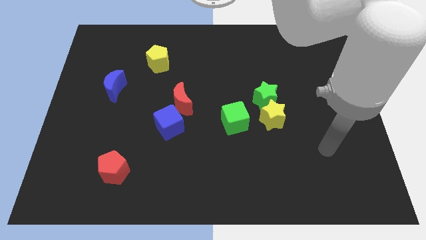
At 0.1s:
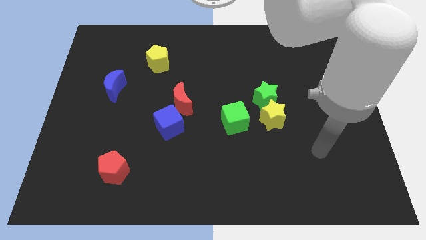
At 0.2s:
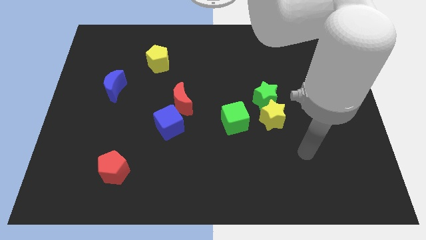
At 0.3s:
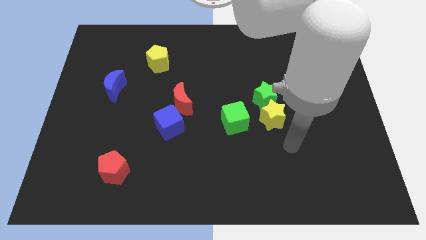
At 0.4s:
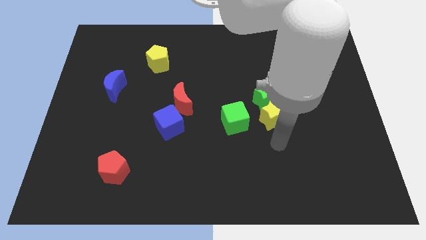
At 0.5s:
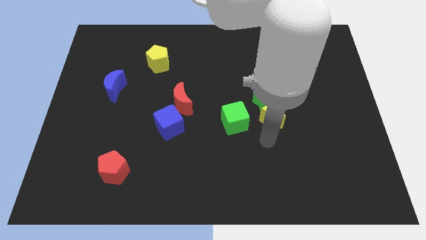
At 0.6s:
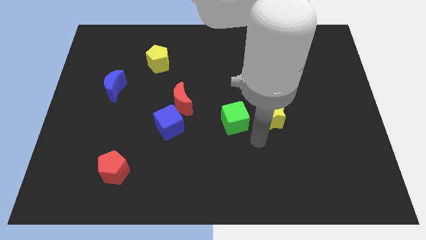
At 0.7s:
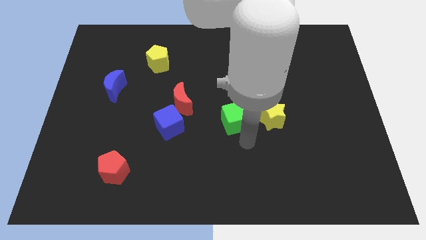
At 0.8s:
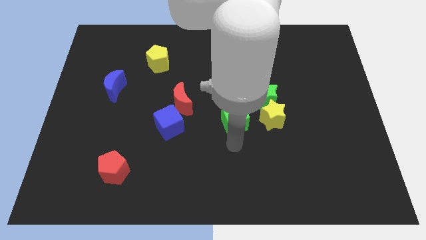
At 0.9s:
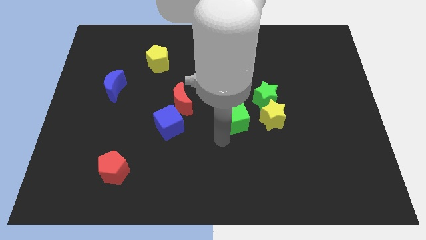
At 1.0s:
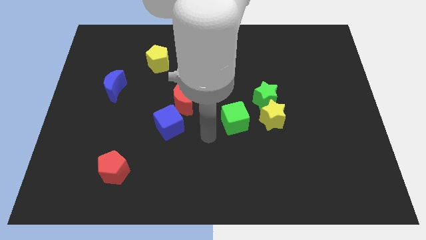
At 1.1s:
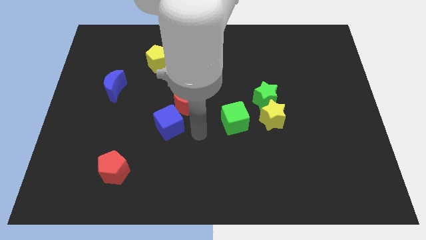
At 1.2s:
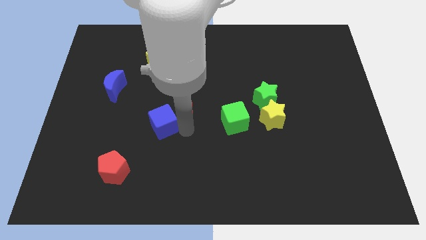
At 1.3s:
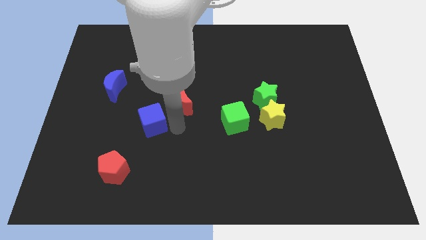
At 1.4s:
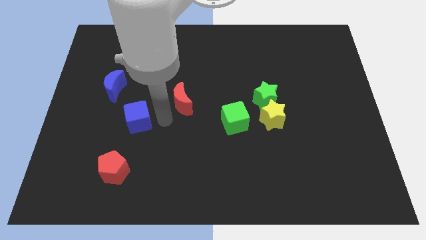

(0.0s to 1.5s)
separate the red moon from the blue cube

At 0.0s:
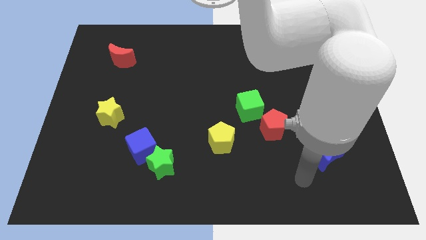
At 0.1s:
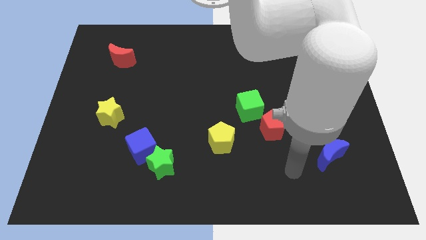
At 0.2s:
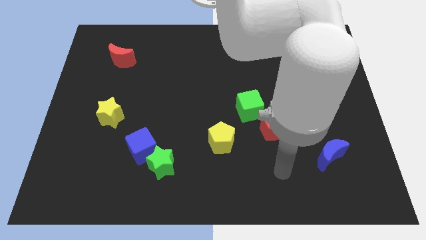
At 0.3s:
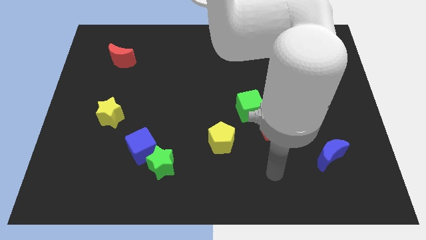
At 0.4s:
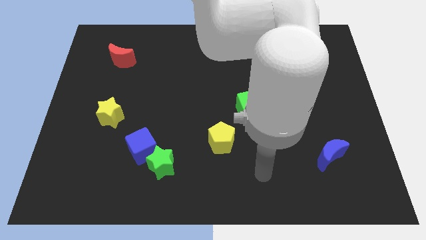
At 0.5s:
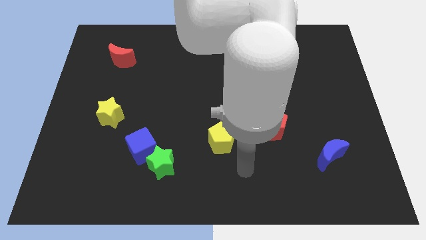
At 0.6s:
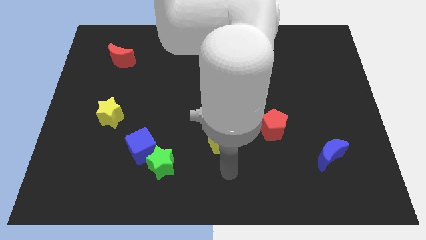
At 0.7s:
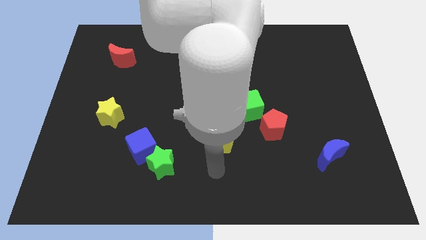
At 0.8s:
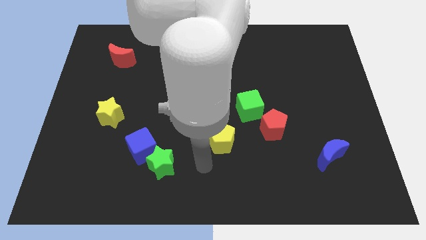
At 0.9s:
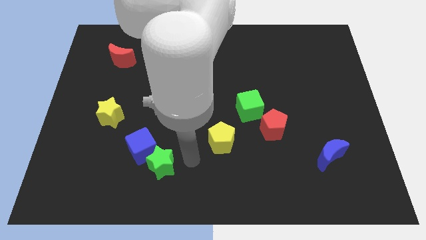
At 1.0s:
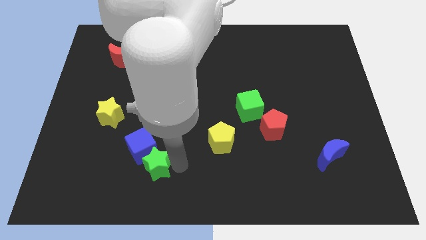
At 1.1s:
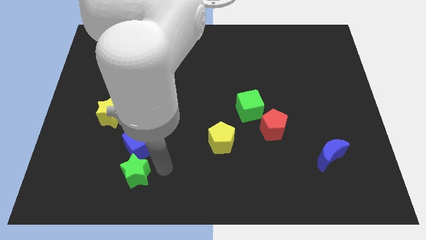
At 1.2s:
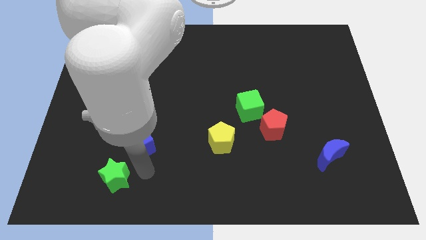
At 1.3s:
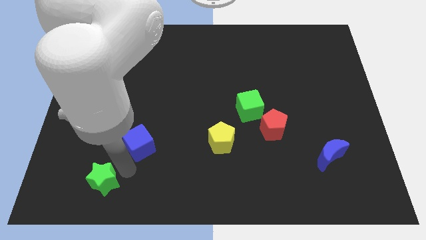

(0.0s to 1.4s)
separate the blue cube from the green star

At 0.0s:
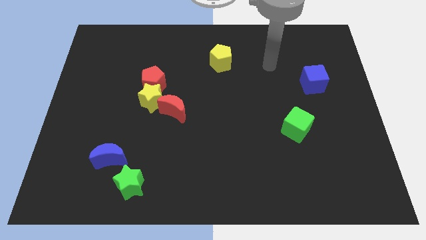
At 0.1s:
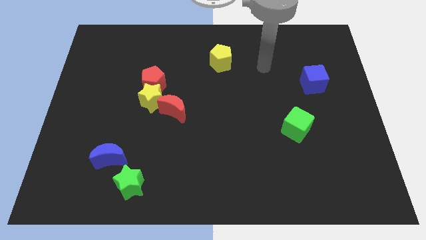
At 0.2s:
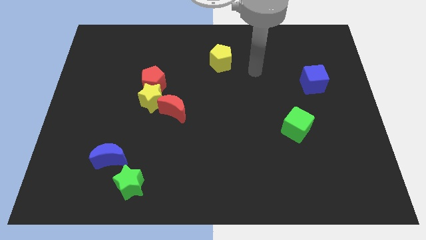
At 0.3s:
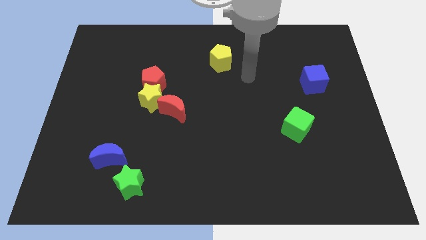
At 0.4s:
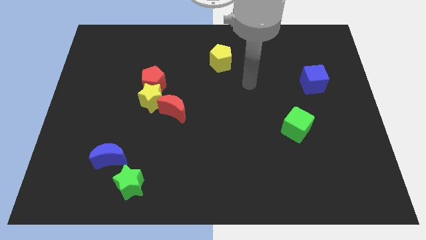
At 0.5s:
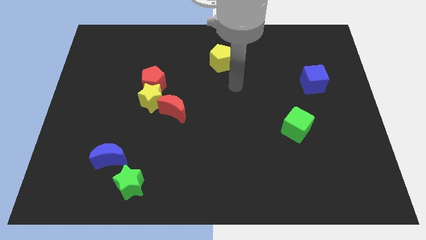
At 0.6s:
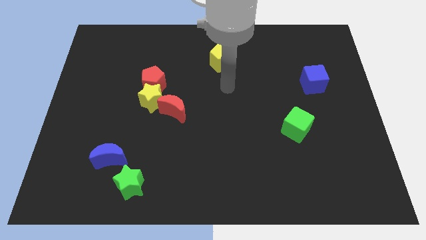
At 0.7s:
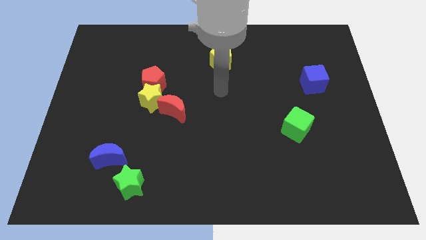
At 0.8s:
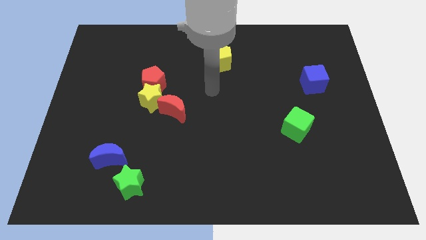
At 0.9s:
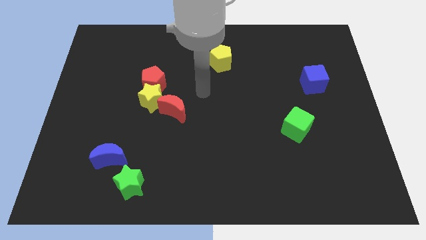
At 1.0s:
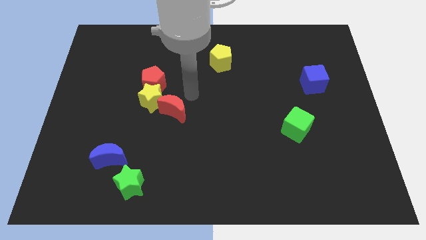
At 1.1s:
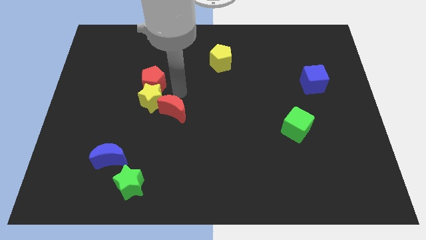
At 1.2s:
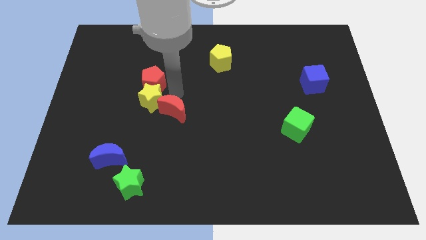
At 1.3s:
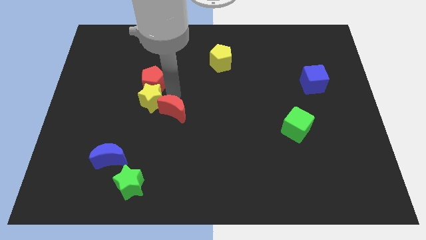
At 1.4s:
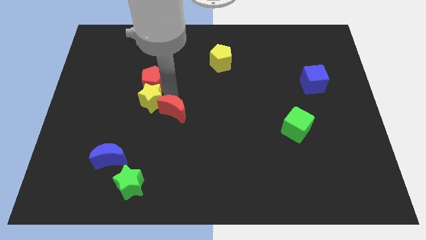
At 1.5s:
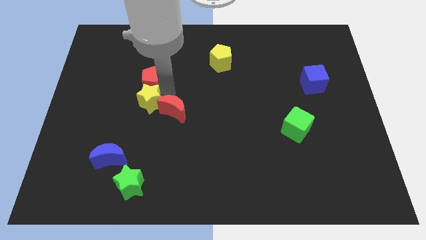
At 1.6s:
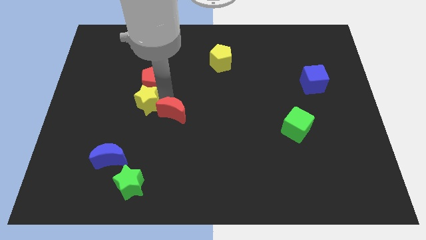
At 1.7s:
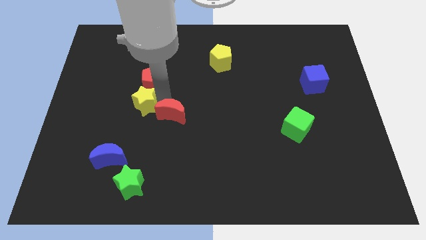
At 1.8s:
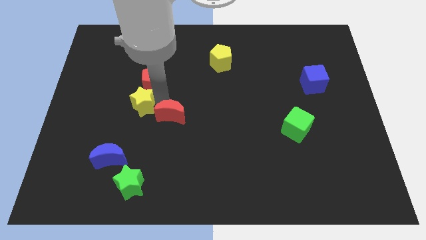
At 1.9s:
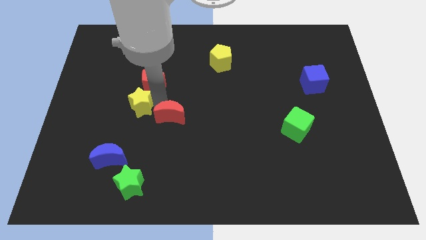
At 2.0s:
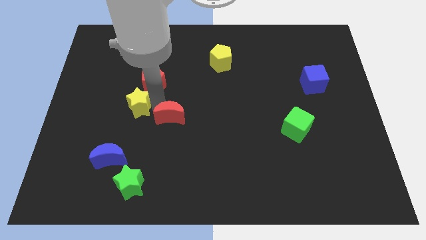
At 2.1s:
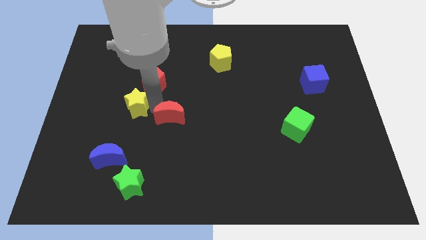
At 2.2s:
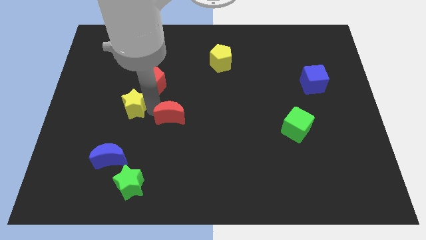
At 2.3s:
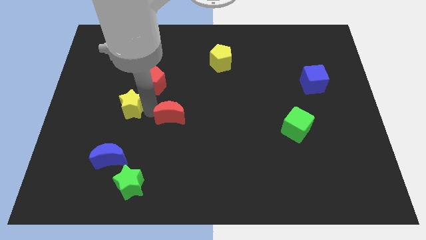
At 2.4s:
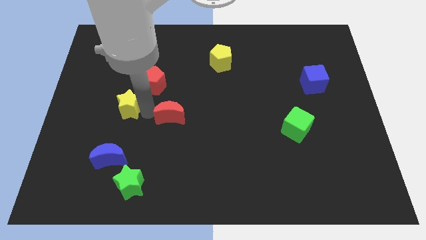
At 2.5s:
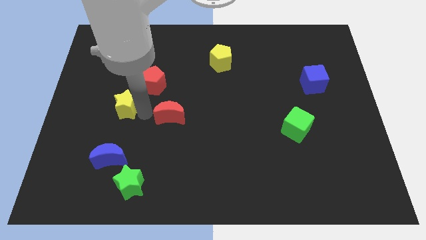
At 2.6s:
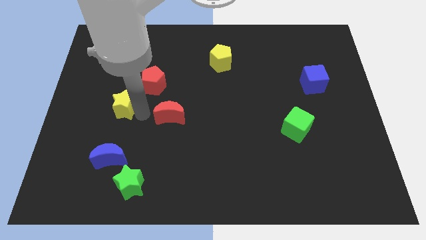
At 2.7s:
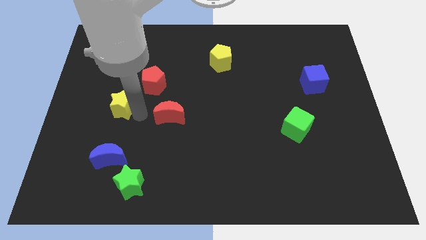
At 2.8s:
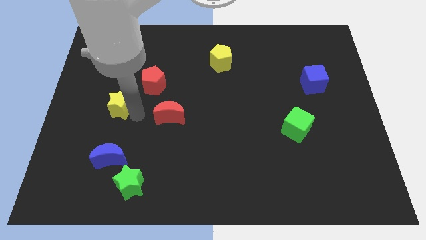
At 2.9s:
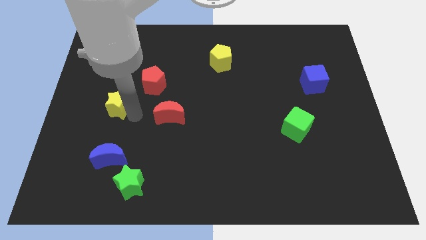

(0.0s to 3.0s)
move the yellow star away from the red pentagon and red moon

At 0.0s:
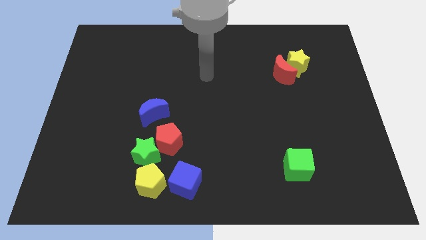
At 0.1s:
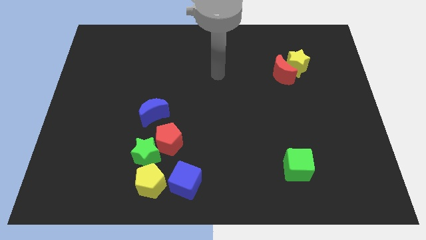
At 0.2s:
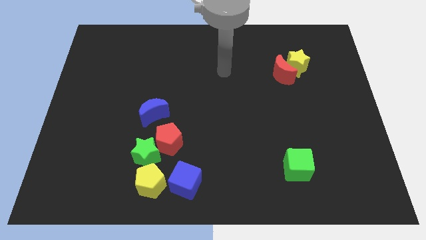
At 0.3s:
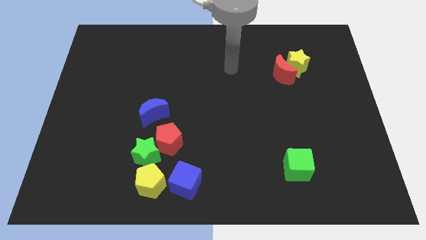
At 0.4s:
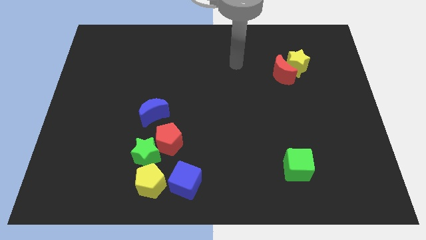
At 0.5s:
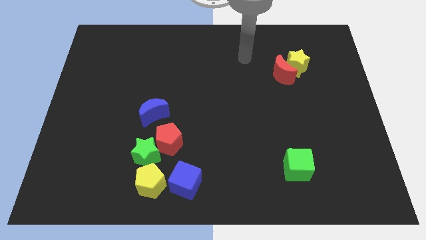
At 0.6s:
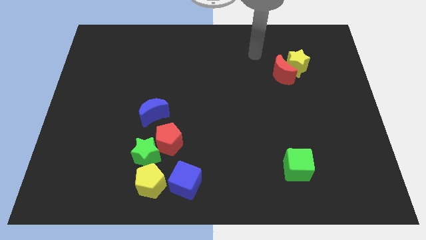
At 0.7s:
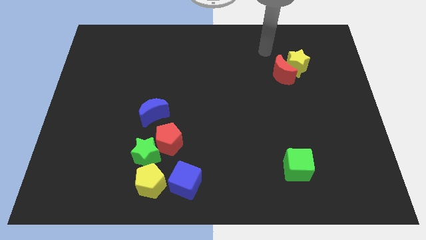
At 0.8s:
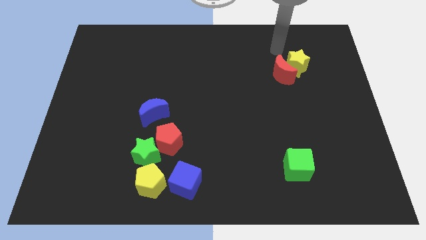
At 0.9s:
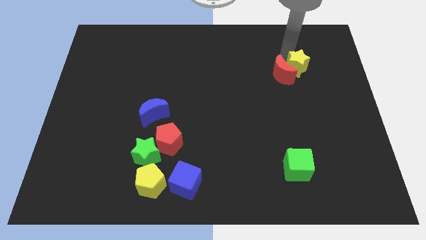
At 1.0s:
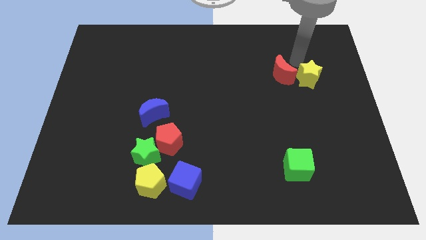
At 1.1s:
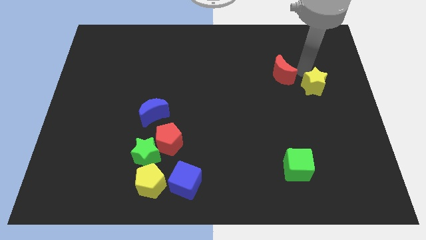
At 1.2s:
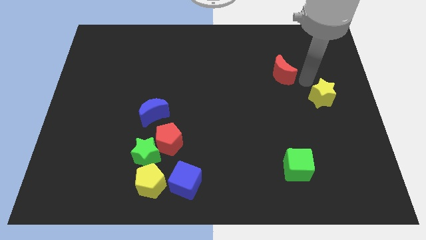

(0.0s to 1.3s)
pull the red moon apart from the yellow star

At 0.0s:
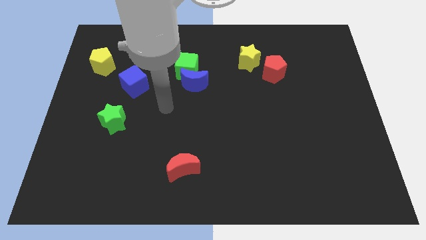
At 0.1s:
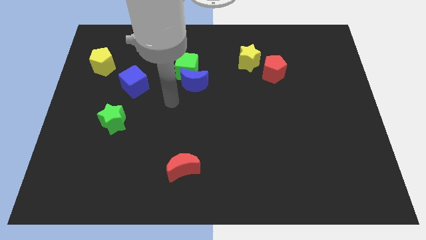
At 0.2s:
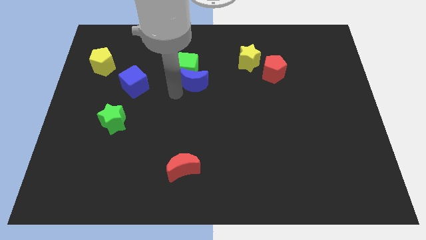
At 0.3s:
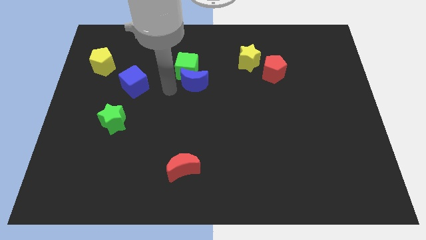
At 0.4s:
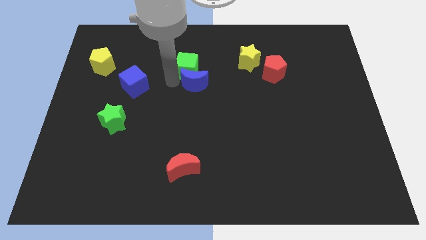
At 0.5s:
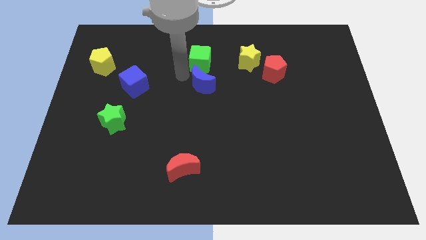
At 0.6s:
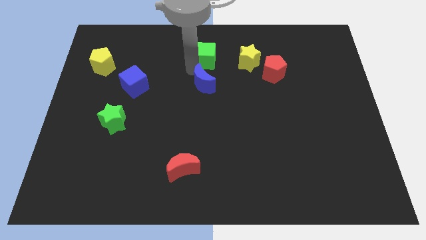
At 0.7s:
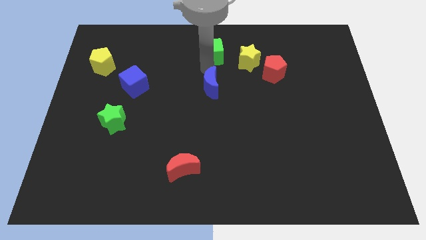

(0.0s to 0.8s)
move the blue moon away from the green cube

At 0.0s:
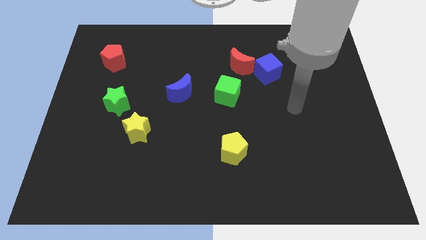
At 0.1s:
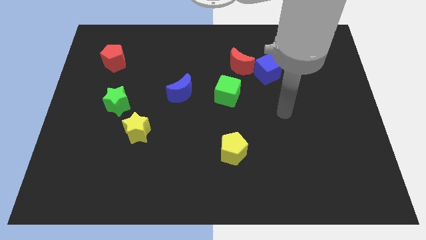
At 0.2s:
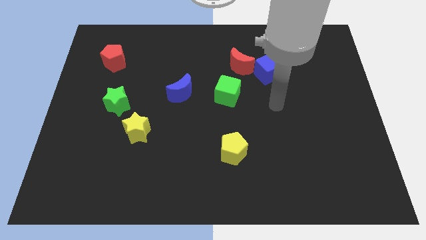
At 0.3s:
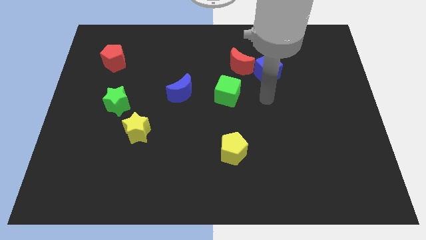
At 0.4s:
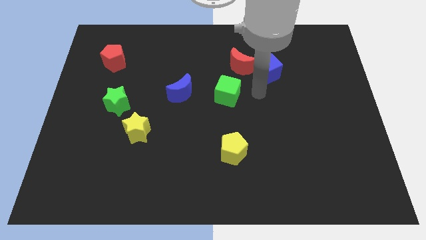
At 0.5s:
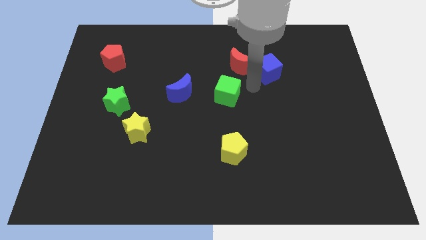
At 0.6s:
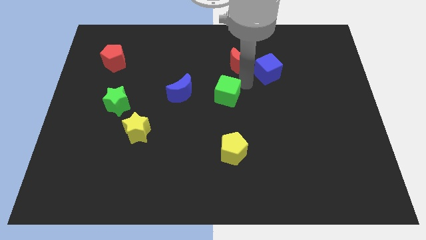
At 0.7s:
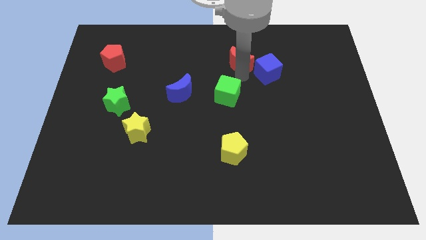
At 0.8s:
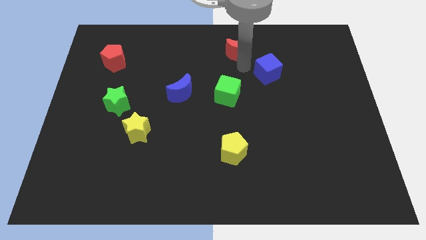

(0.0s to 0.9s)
pull the blue cube apart from the red moon

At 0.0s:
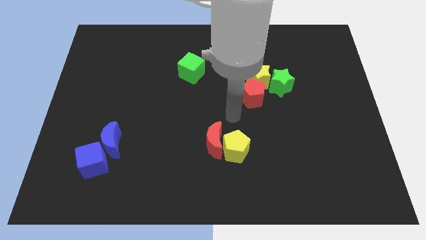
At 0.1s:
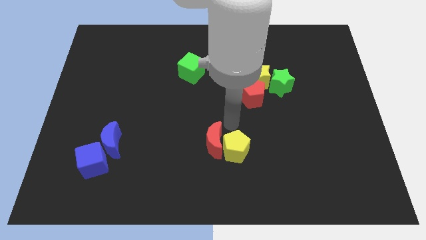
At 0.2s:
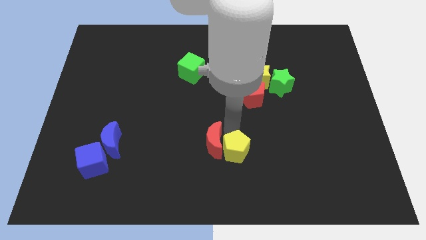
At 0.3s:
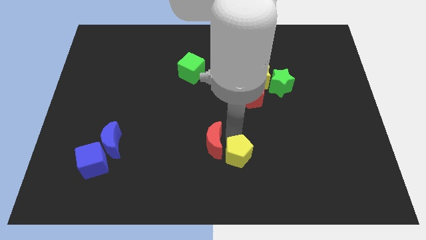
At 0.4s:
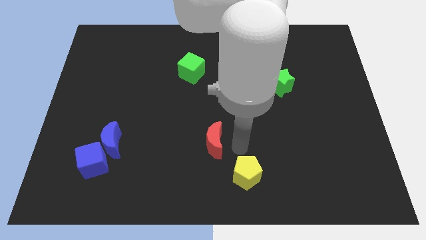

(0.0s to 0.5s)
pull the red moon apart from the yellow pentagon
